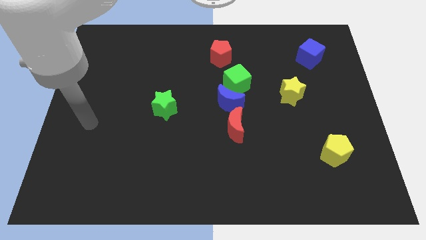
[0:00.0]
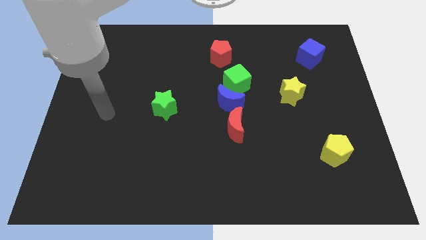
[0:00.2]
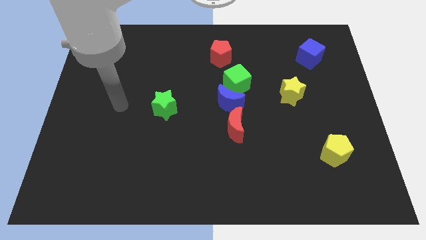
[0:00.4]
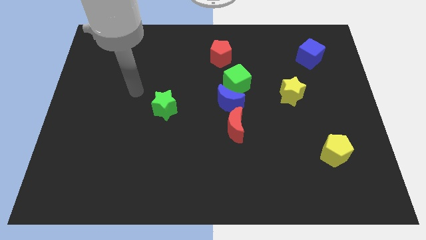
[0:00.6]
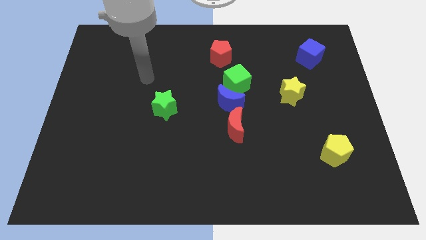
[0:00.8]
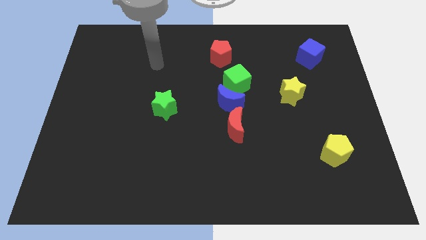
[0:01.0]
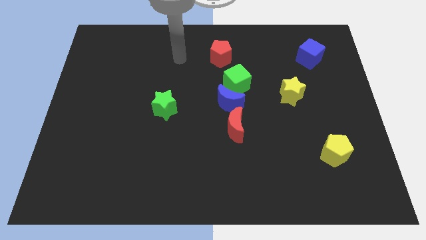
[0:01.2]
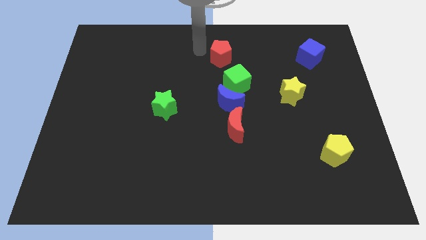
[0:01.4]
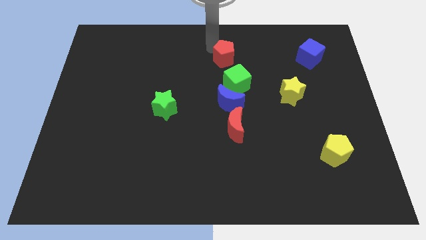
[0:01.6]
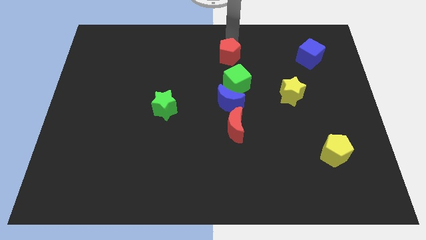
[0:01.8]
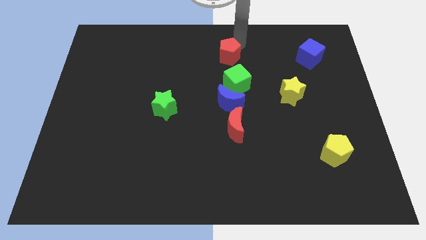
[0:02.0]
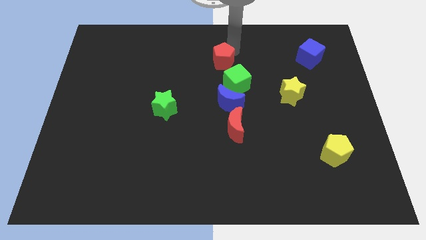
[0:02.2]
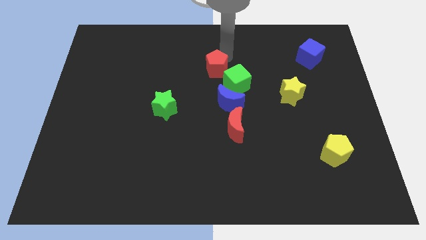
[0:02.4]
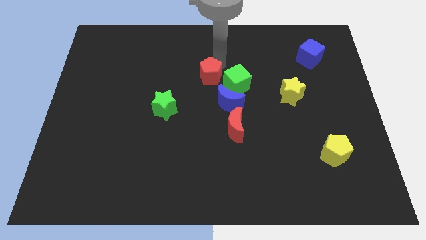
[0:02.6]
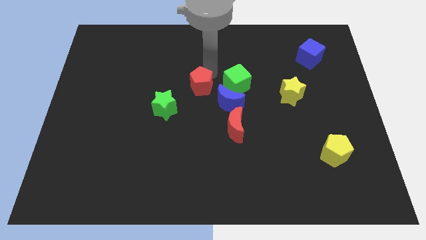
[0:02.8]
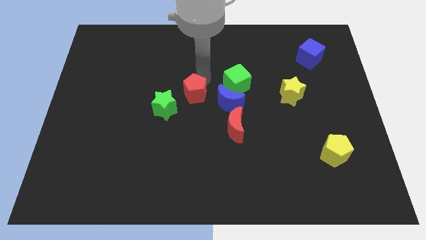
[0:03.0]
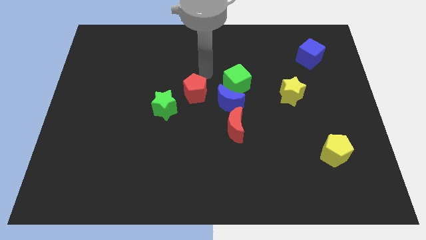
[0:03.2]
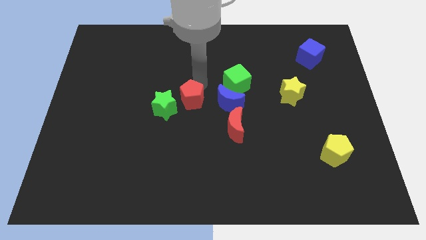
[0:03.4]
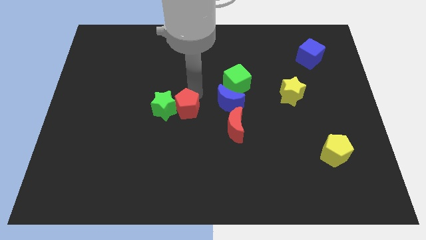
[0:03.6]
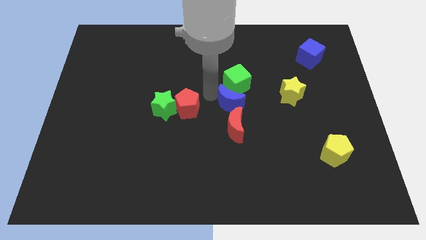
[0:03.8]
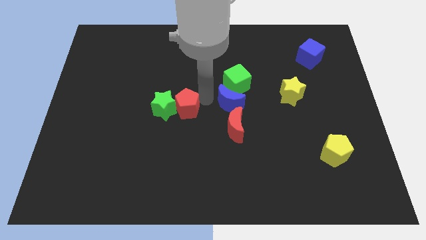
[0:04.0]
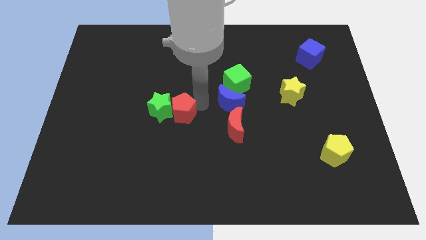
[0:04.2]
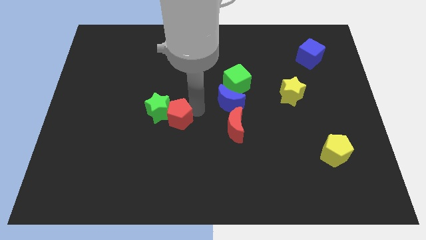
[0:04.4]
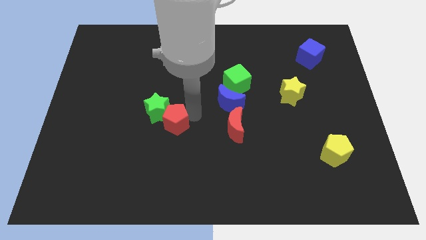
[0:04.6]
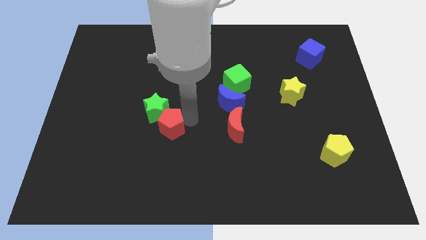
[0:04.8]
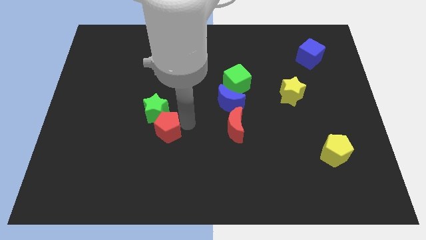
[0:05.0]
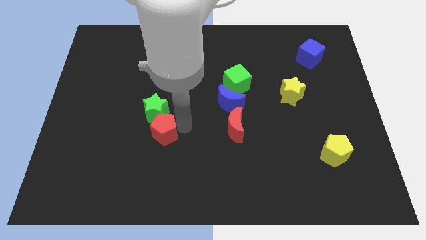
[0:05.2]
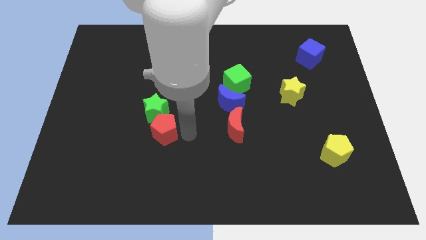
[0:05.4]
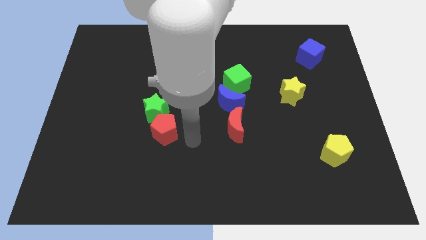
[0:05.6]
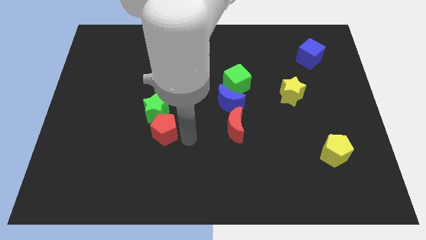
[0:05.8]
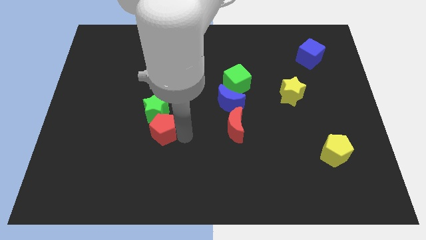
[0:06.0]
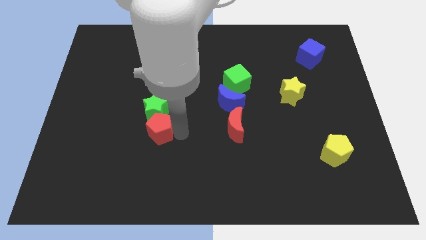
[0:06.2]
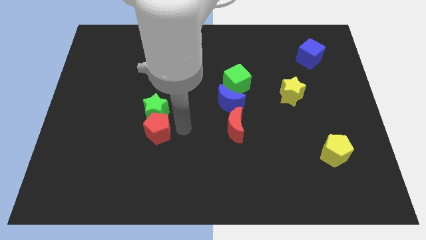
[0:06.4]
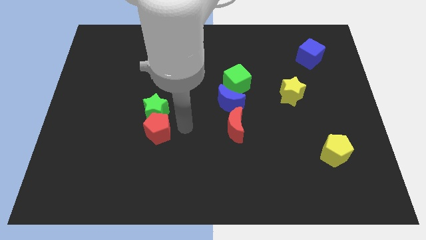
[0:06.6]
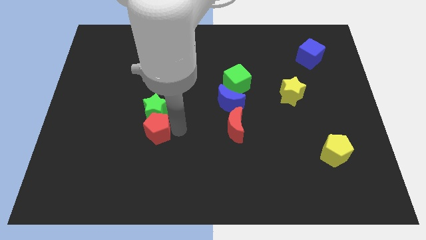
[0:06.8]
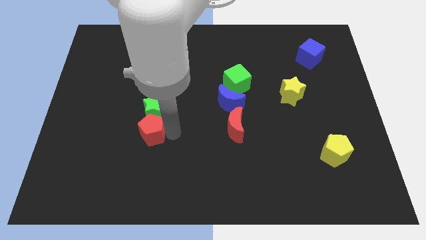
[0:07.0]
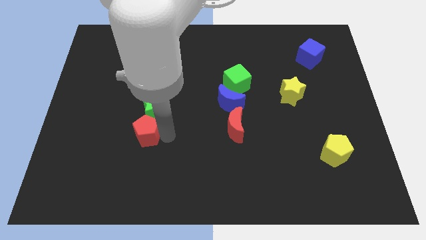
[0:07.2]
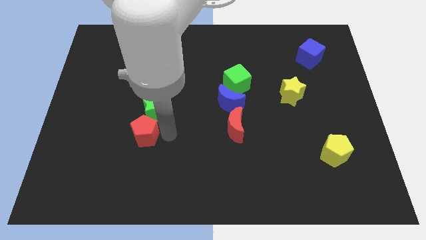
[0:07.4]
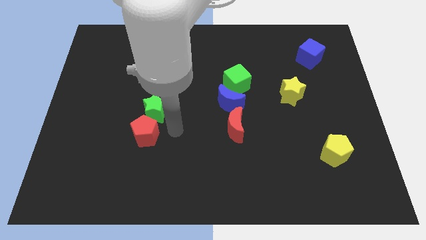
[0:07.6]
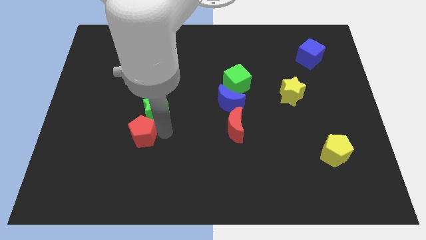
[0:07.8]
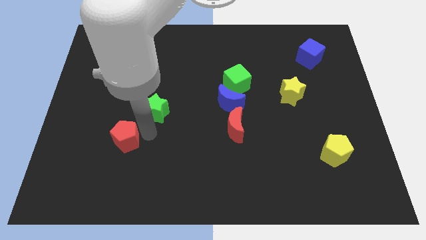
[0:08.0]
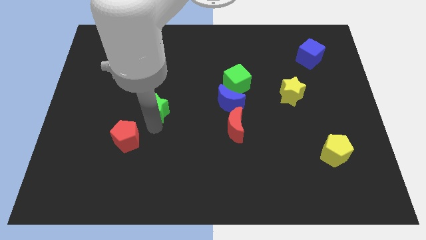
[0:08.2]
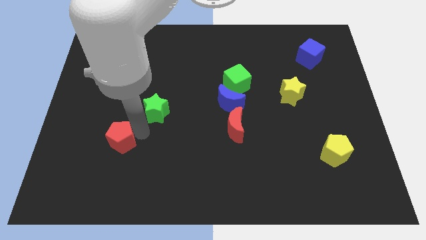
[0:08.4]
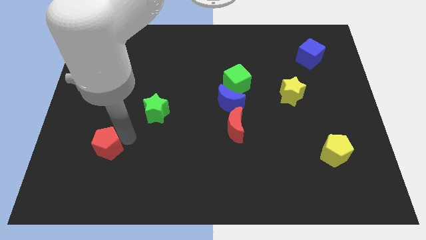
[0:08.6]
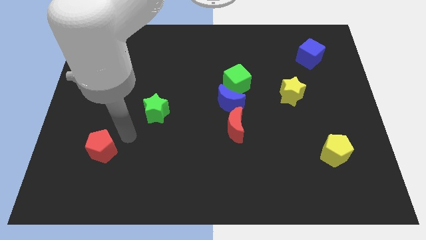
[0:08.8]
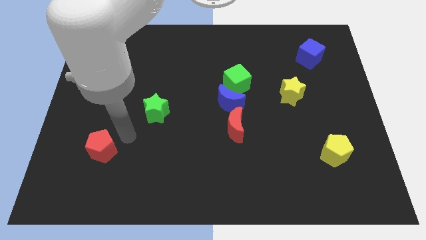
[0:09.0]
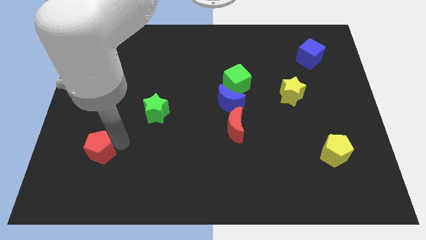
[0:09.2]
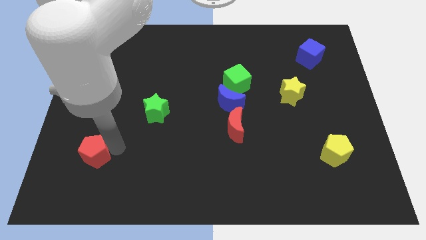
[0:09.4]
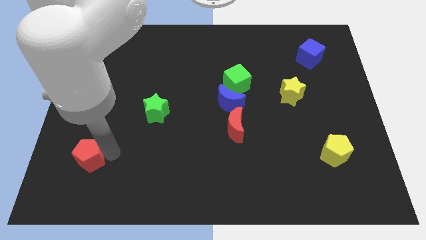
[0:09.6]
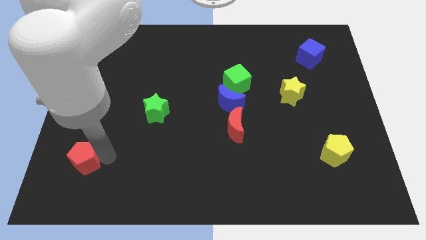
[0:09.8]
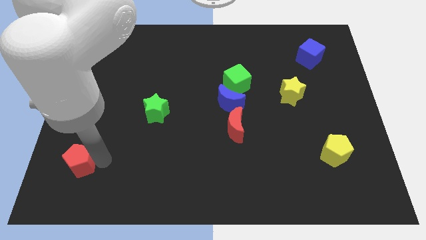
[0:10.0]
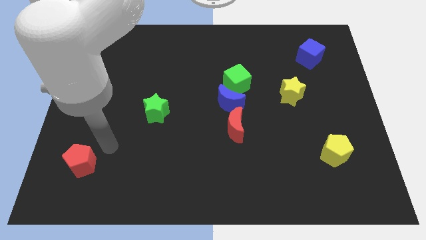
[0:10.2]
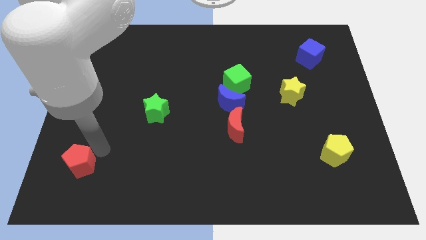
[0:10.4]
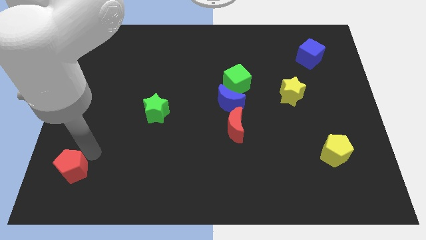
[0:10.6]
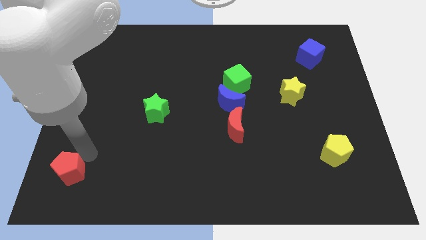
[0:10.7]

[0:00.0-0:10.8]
move the red pentagon to the bottom left corner

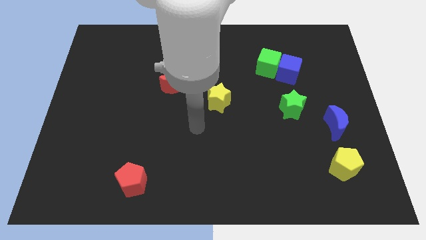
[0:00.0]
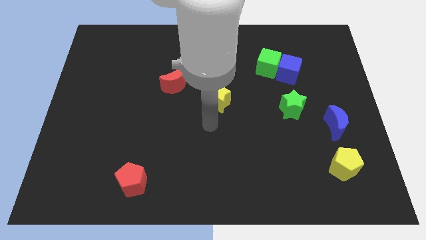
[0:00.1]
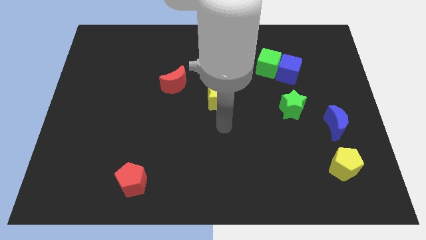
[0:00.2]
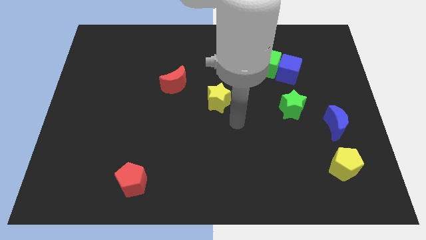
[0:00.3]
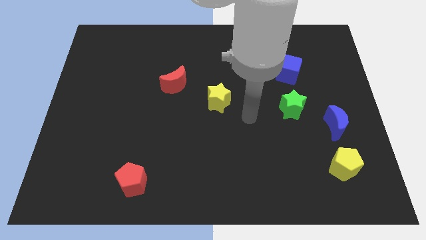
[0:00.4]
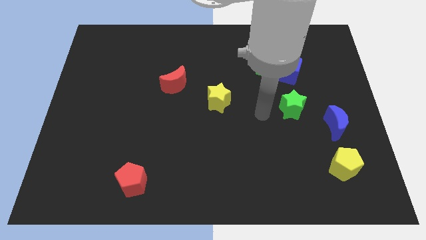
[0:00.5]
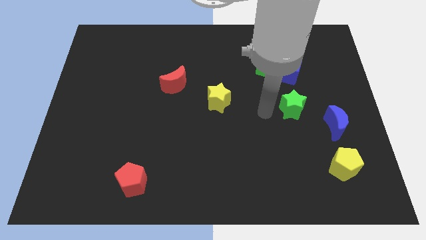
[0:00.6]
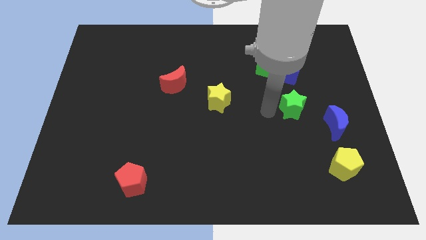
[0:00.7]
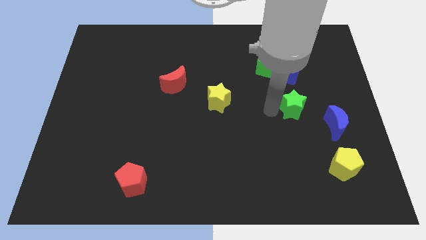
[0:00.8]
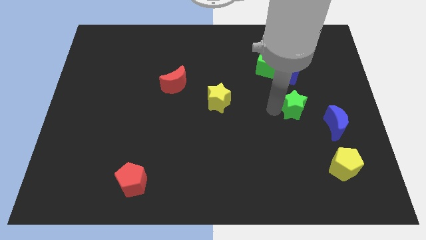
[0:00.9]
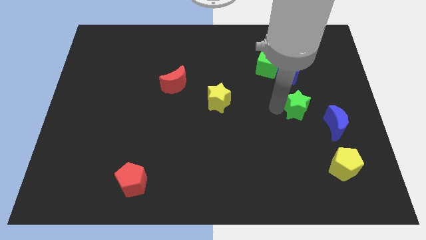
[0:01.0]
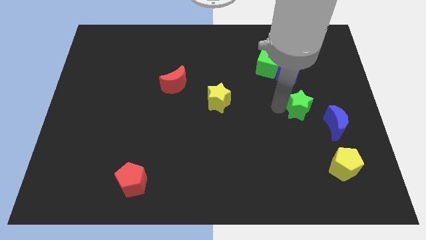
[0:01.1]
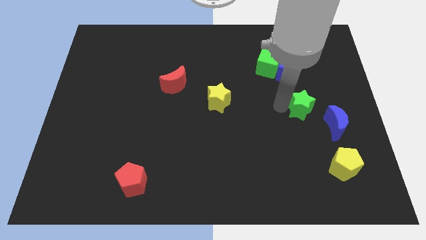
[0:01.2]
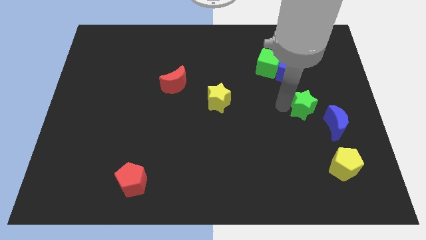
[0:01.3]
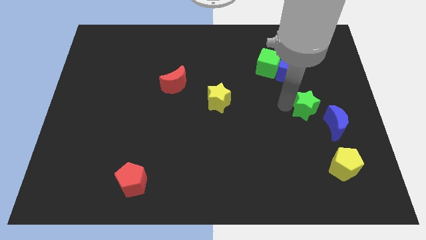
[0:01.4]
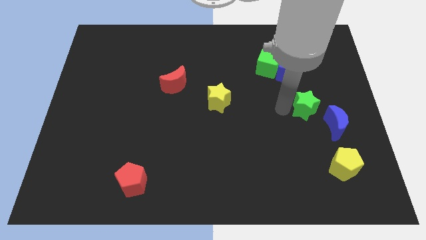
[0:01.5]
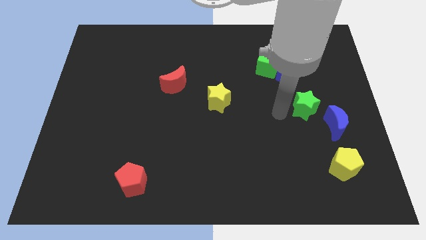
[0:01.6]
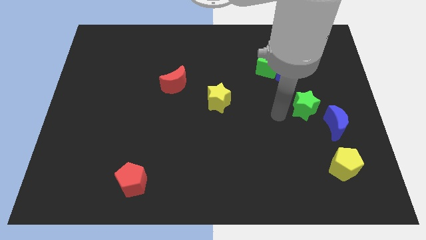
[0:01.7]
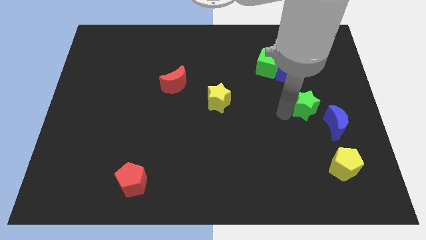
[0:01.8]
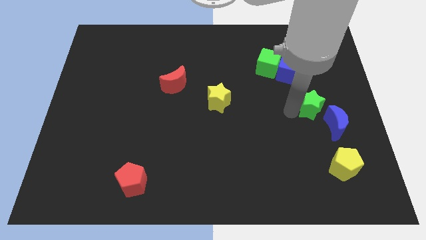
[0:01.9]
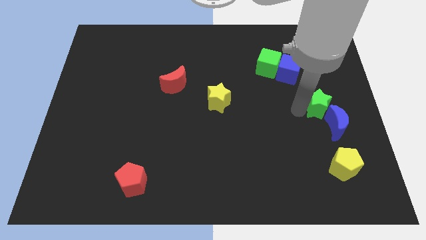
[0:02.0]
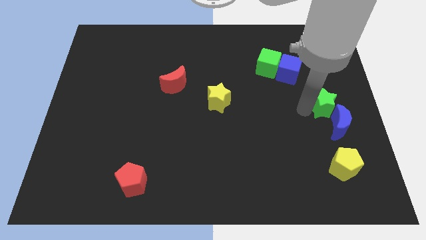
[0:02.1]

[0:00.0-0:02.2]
push the green star to the right side
